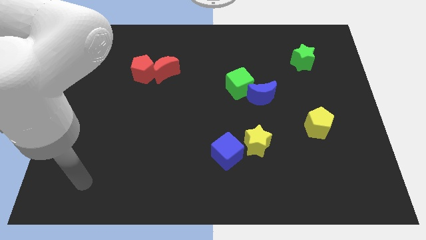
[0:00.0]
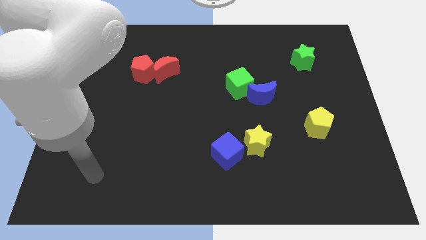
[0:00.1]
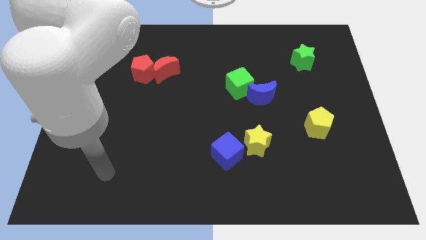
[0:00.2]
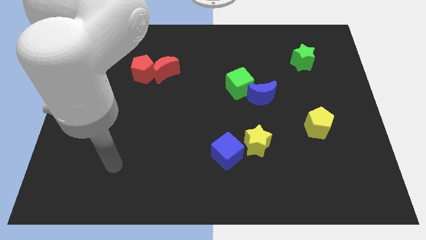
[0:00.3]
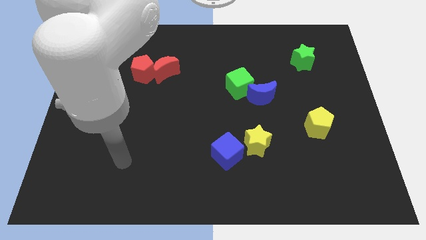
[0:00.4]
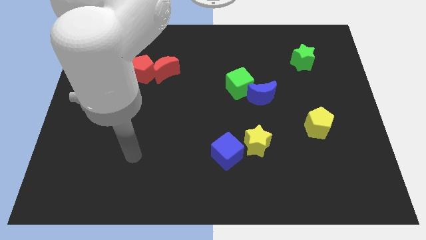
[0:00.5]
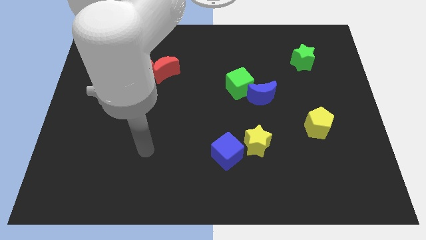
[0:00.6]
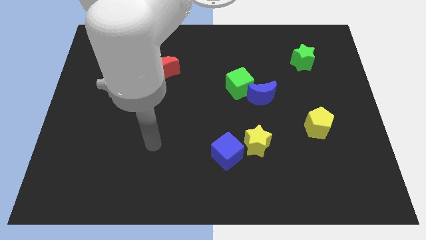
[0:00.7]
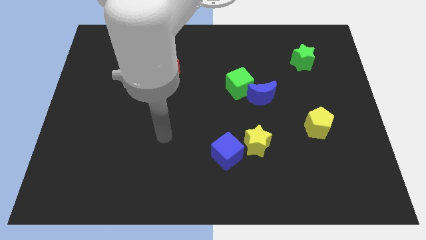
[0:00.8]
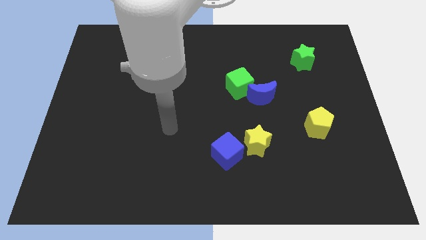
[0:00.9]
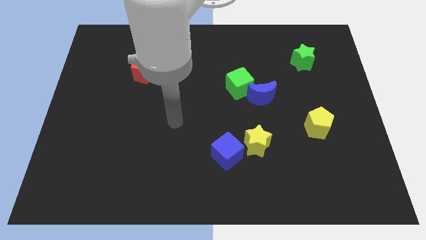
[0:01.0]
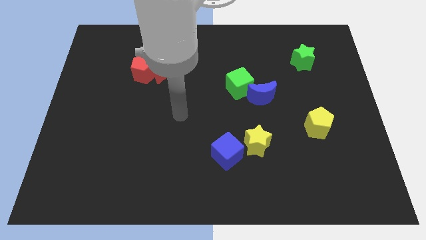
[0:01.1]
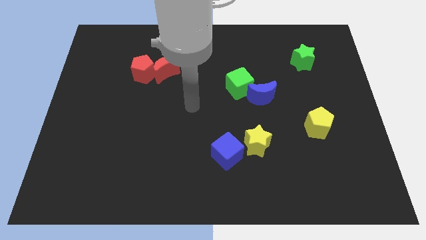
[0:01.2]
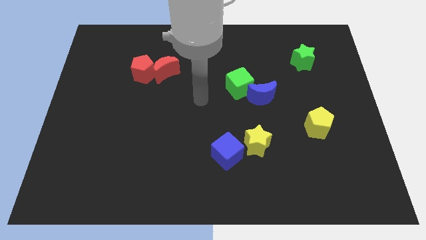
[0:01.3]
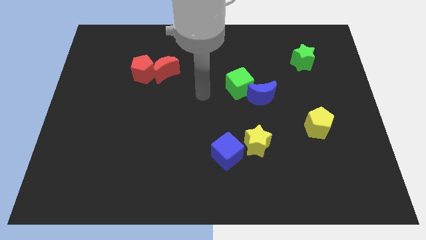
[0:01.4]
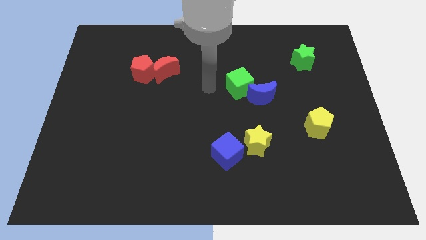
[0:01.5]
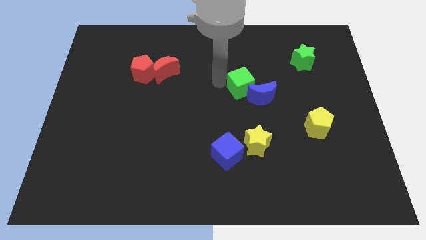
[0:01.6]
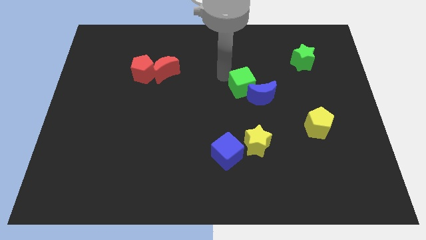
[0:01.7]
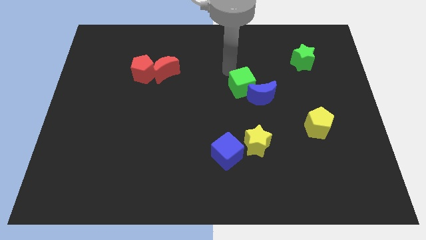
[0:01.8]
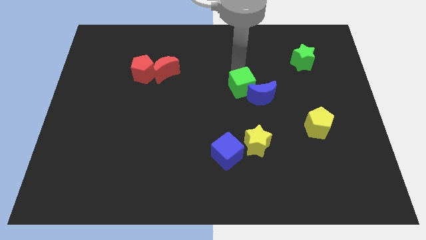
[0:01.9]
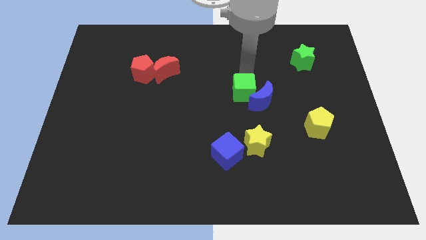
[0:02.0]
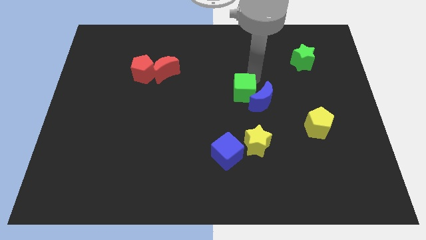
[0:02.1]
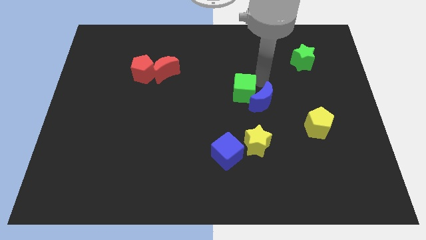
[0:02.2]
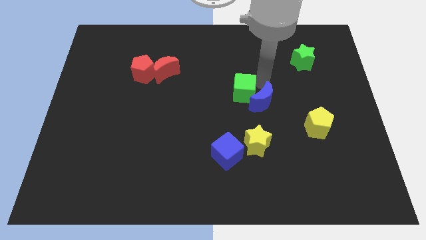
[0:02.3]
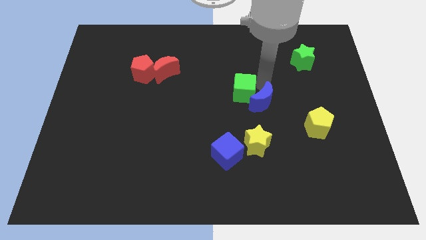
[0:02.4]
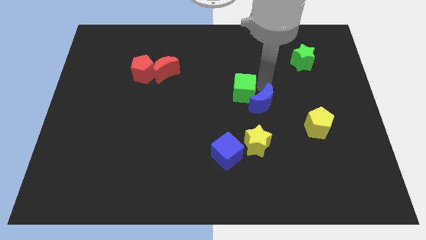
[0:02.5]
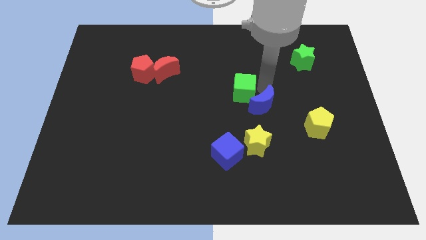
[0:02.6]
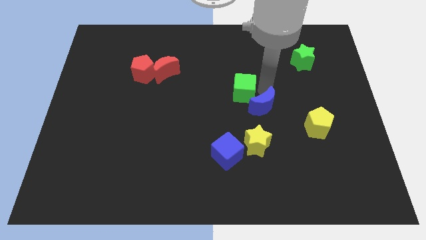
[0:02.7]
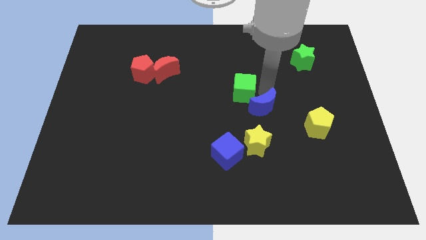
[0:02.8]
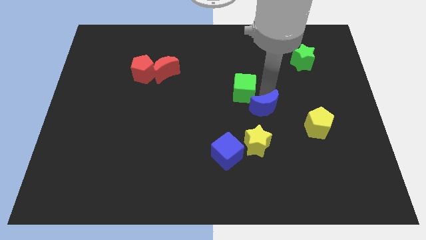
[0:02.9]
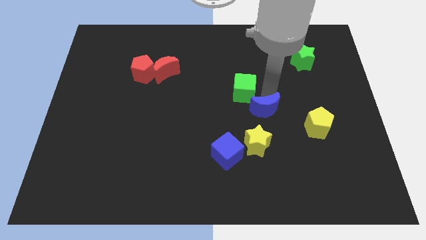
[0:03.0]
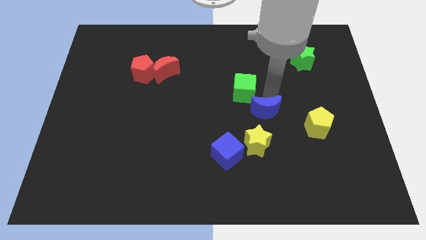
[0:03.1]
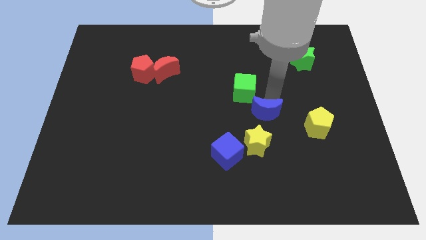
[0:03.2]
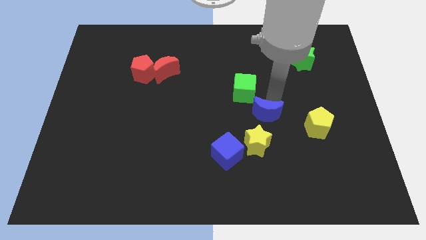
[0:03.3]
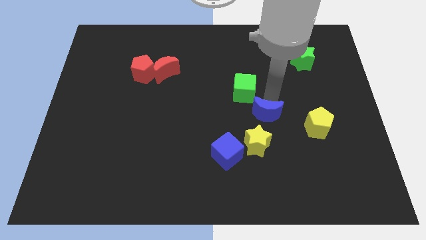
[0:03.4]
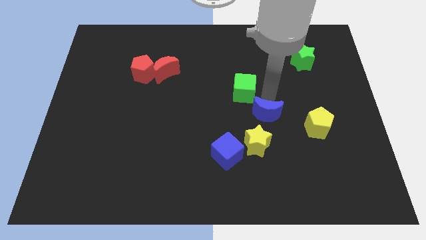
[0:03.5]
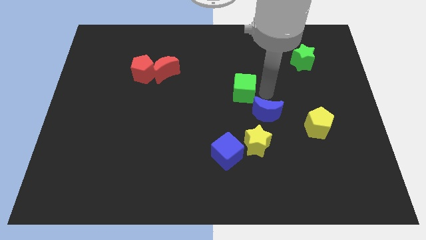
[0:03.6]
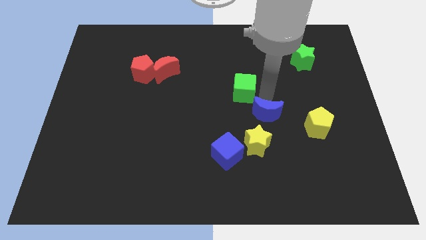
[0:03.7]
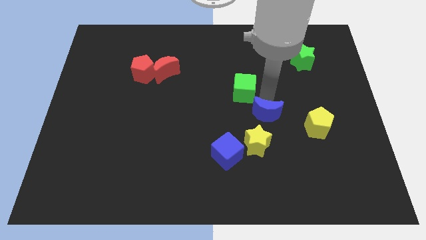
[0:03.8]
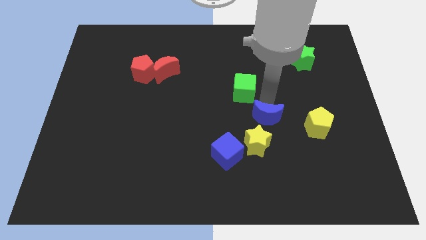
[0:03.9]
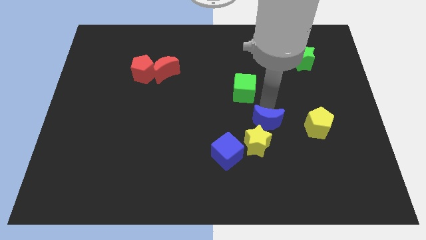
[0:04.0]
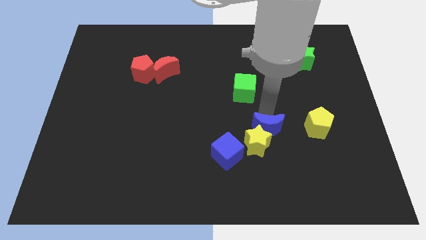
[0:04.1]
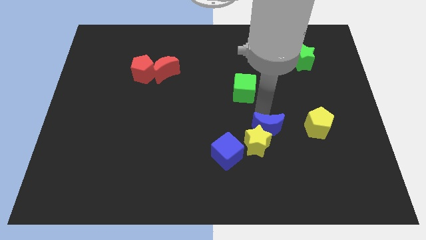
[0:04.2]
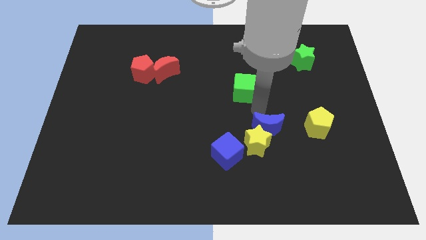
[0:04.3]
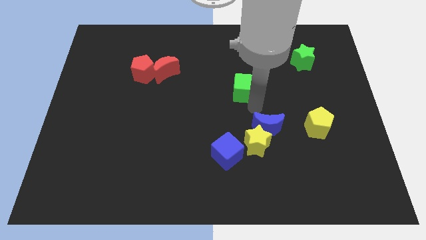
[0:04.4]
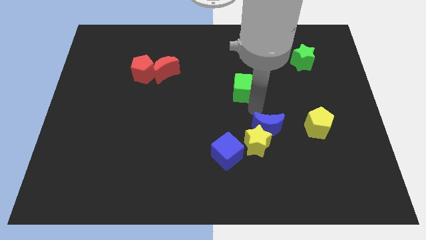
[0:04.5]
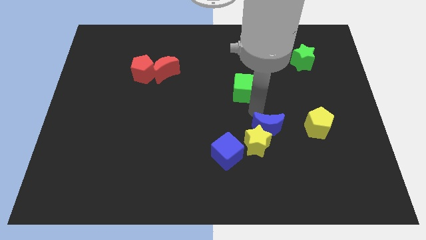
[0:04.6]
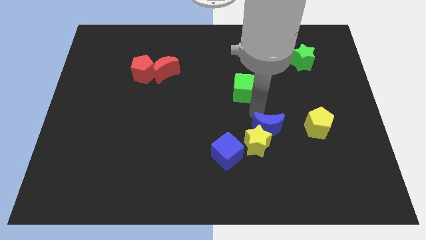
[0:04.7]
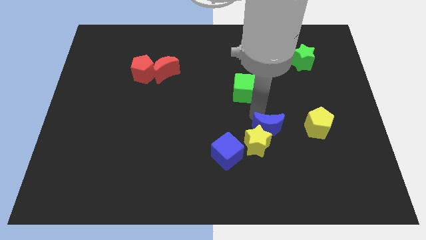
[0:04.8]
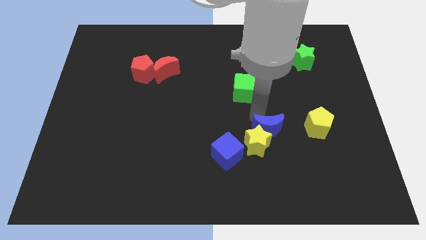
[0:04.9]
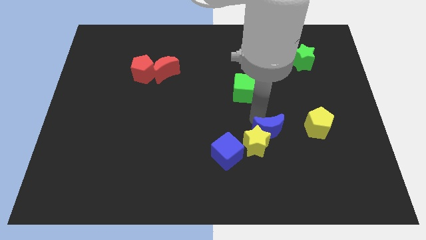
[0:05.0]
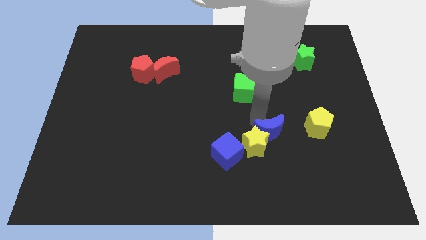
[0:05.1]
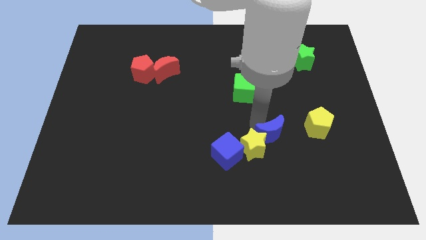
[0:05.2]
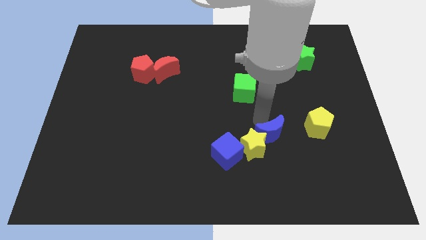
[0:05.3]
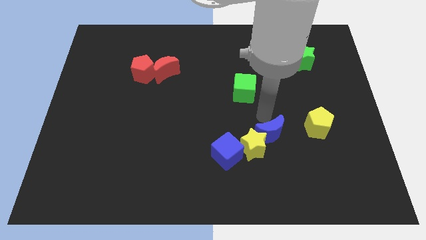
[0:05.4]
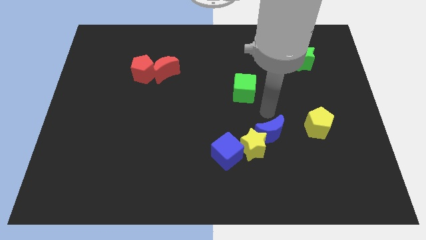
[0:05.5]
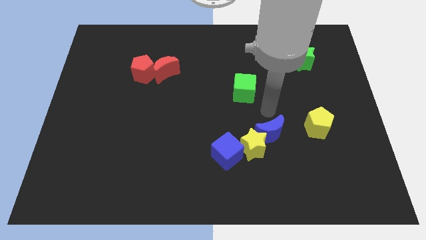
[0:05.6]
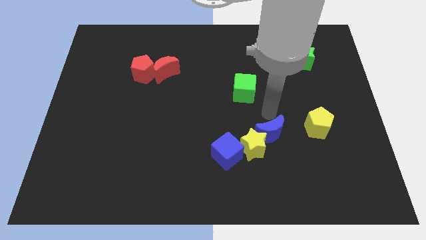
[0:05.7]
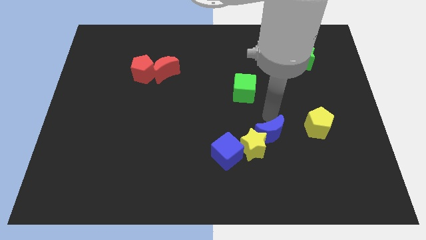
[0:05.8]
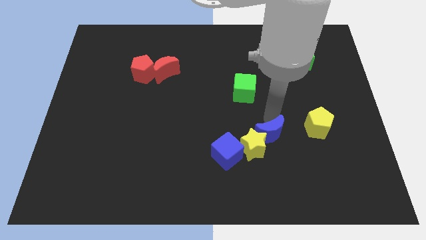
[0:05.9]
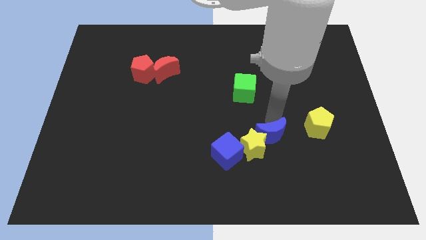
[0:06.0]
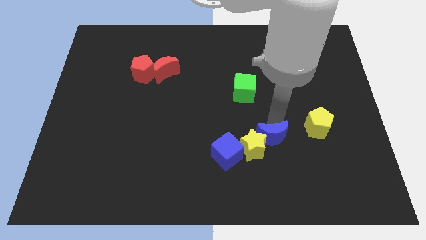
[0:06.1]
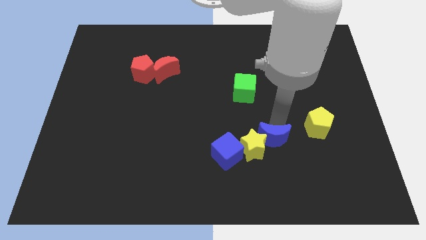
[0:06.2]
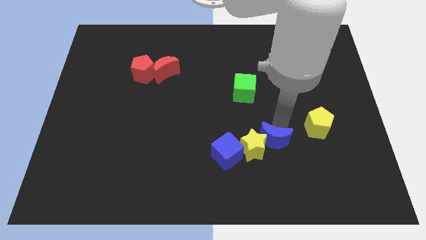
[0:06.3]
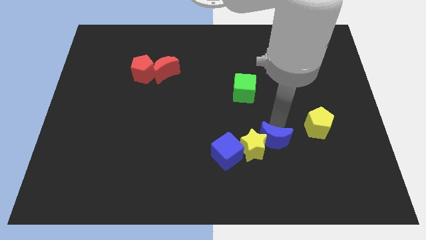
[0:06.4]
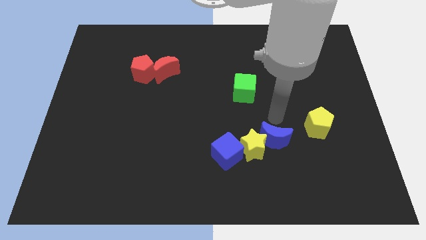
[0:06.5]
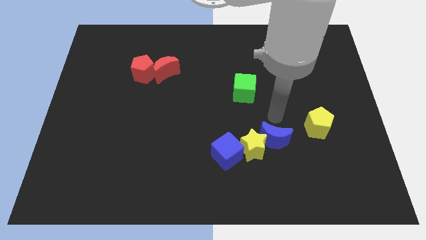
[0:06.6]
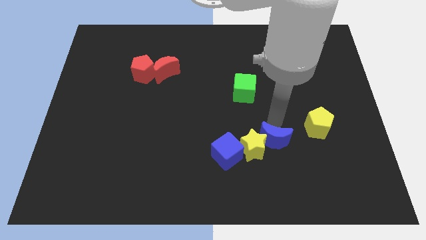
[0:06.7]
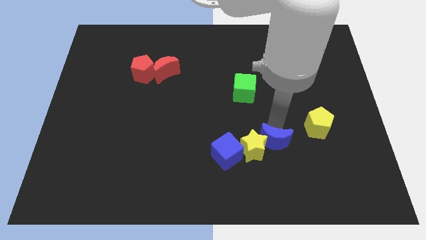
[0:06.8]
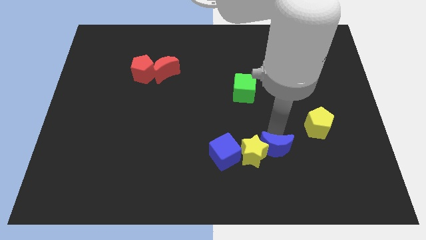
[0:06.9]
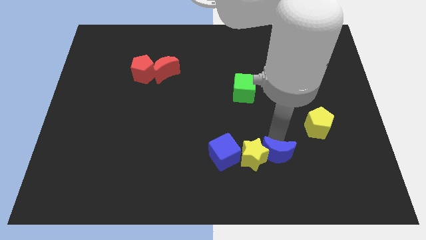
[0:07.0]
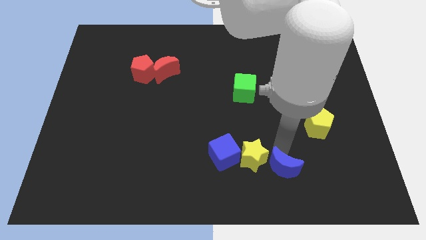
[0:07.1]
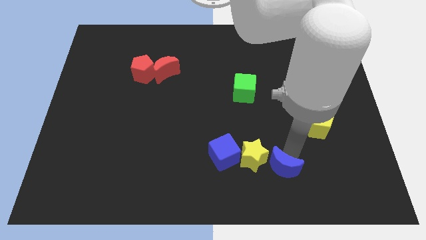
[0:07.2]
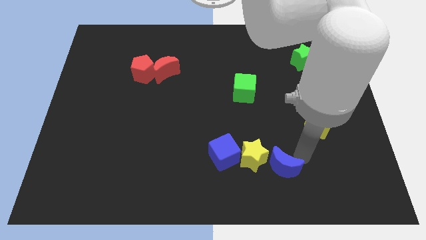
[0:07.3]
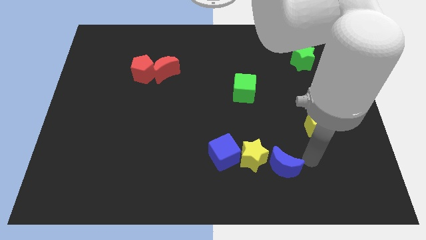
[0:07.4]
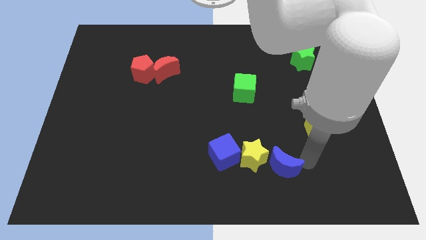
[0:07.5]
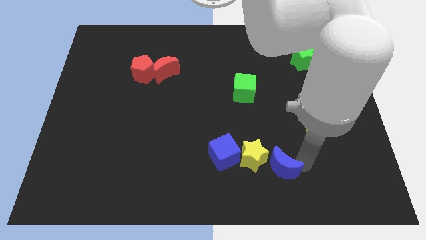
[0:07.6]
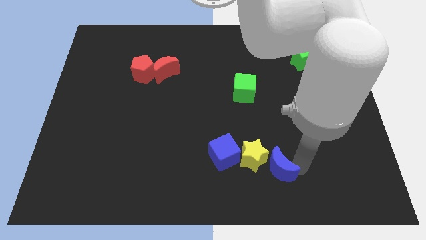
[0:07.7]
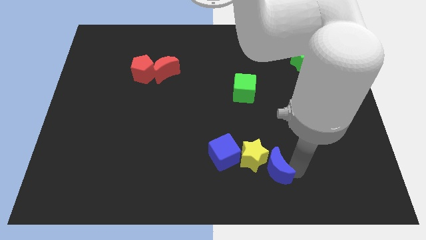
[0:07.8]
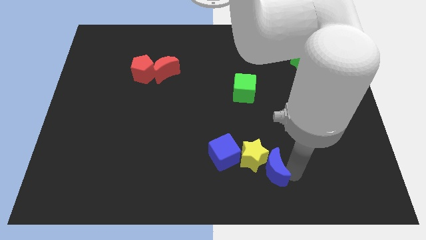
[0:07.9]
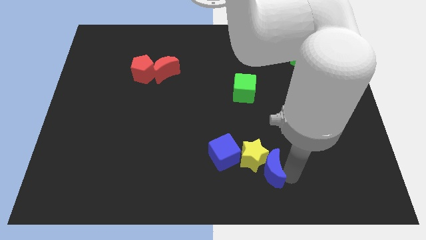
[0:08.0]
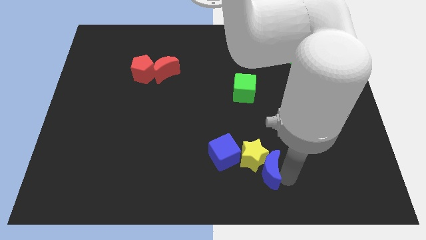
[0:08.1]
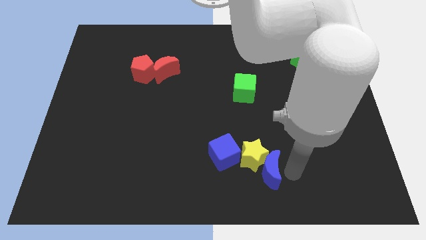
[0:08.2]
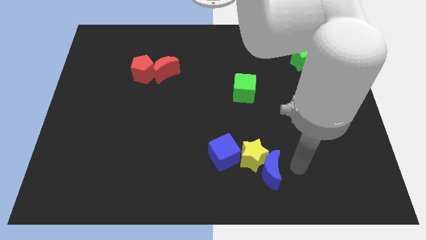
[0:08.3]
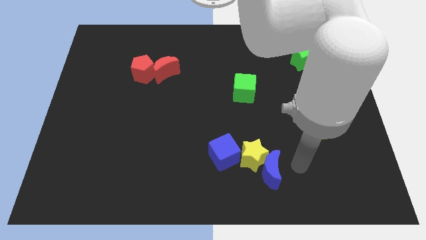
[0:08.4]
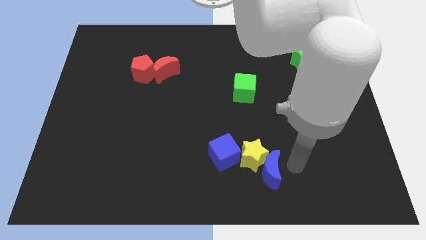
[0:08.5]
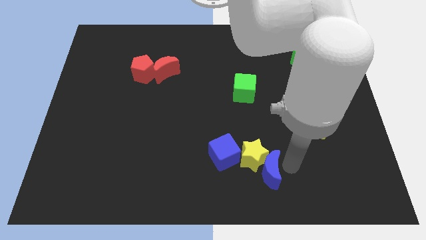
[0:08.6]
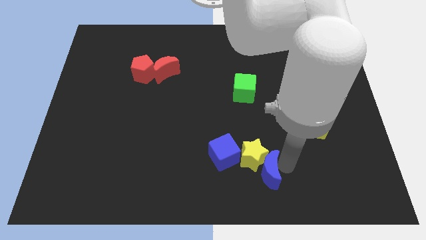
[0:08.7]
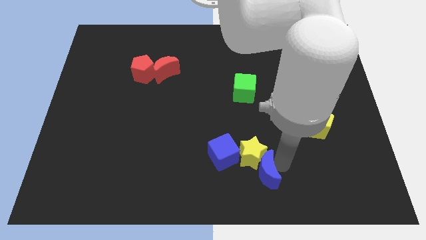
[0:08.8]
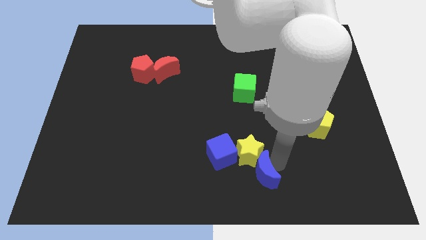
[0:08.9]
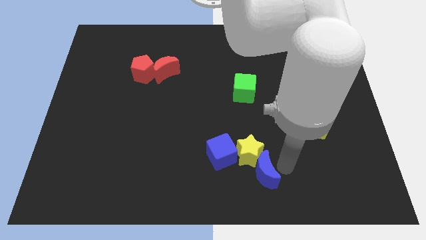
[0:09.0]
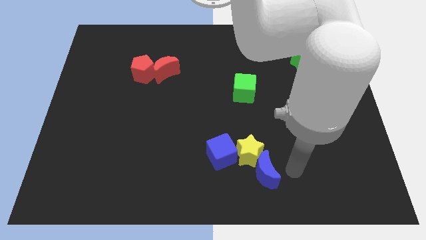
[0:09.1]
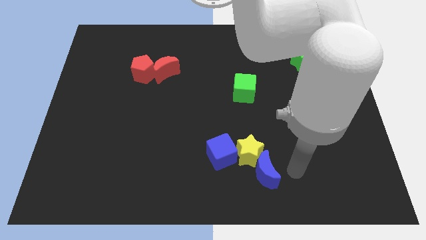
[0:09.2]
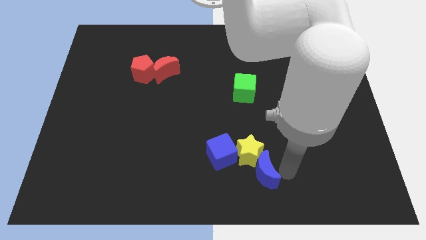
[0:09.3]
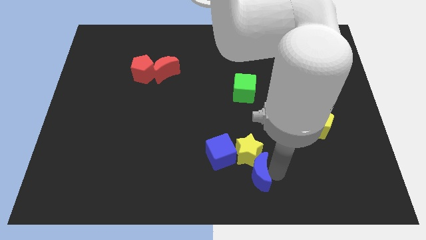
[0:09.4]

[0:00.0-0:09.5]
slide the blue moon to the bottom left side of the yellow star
